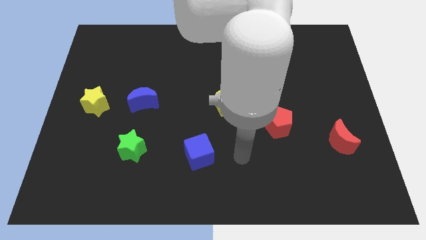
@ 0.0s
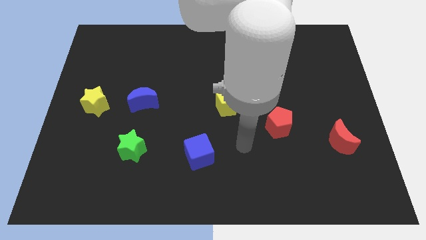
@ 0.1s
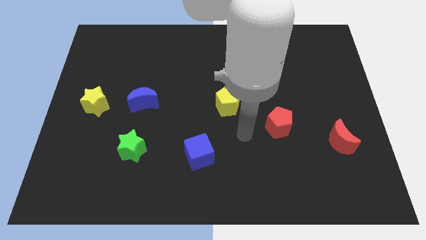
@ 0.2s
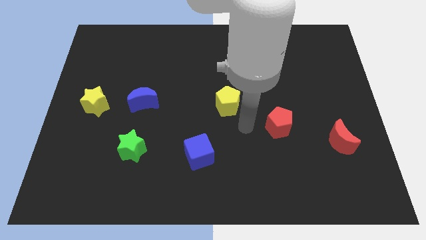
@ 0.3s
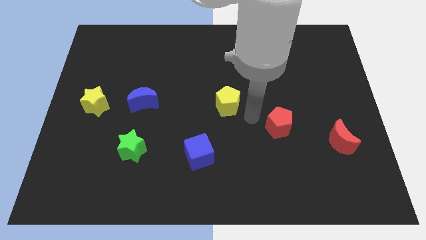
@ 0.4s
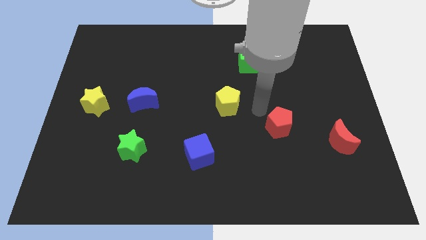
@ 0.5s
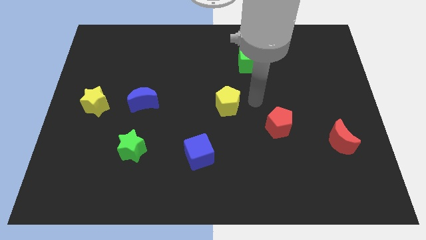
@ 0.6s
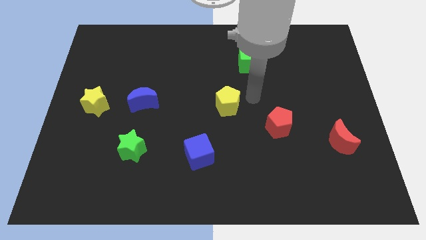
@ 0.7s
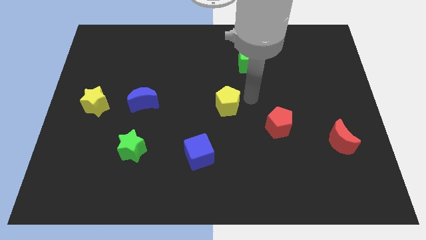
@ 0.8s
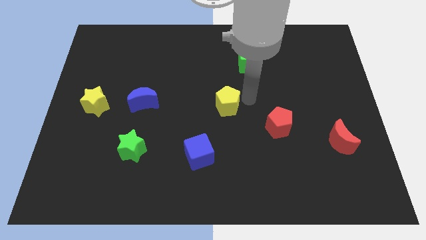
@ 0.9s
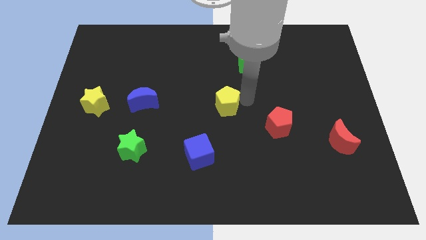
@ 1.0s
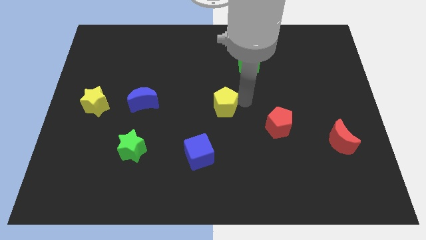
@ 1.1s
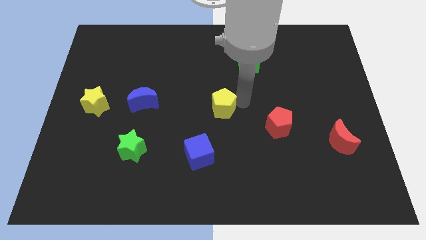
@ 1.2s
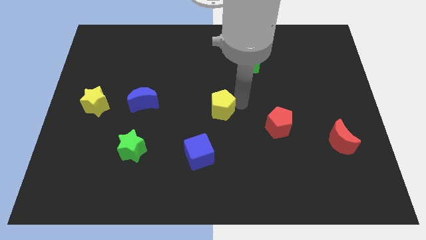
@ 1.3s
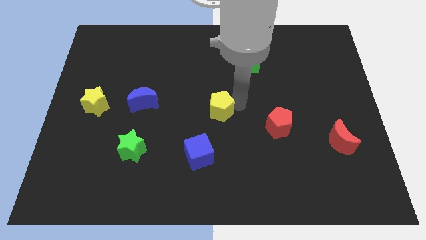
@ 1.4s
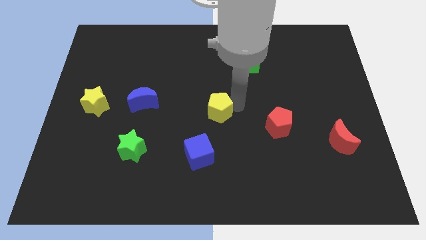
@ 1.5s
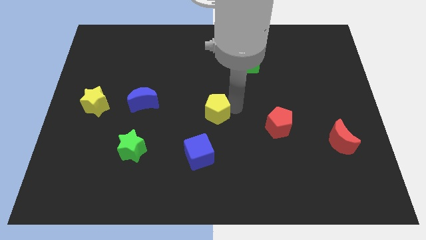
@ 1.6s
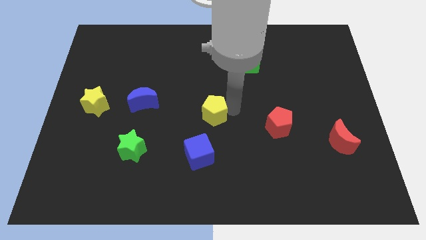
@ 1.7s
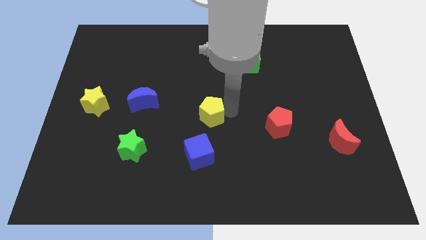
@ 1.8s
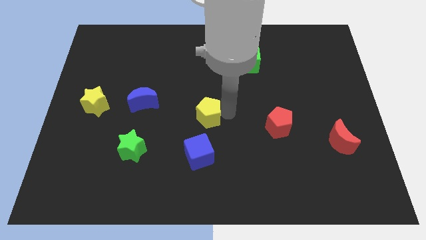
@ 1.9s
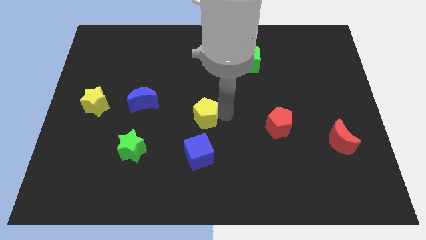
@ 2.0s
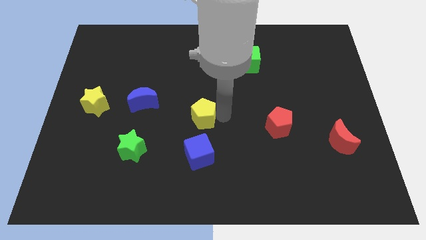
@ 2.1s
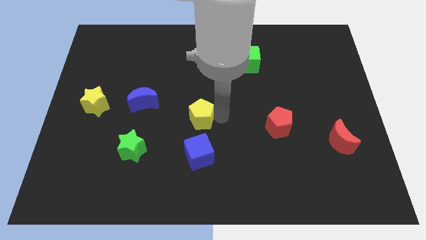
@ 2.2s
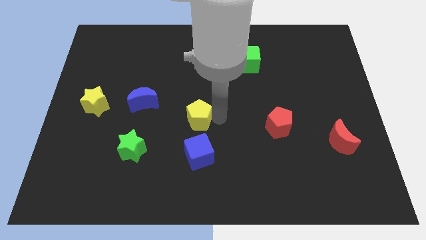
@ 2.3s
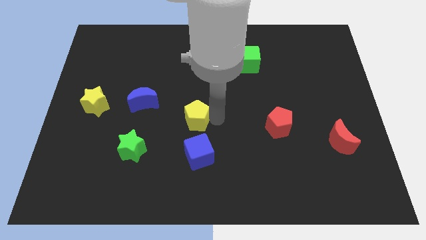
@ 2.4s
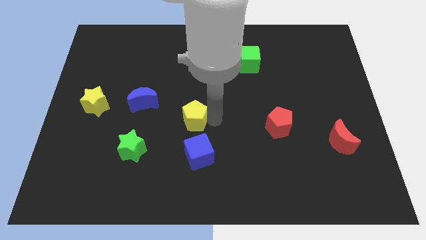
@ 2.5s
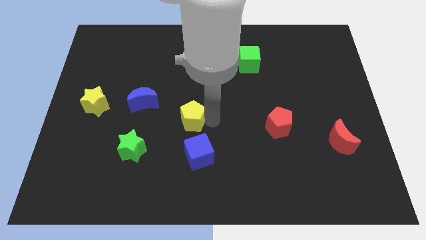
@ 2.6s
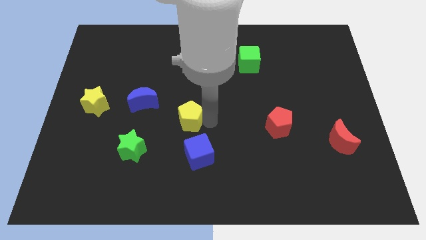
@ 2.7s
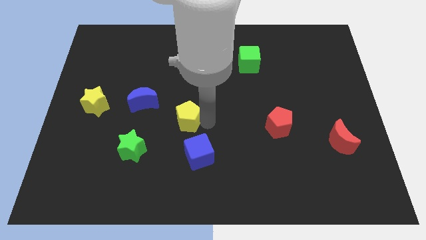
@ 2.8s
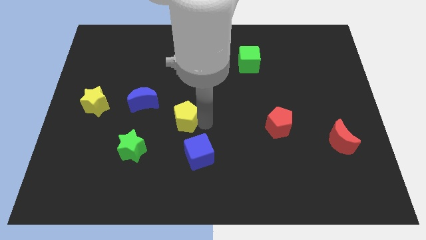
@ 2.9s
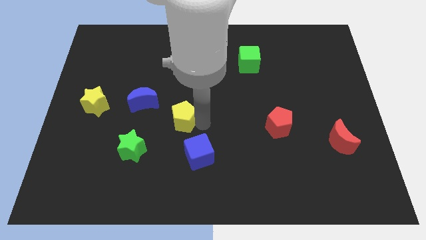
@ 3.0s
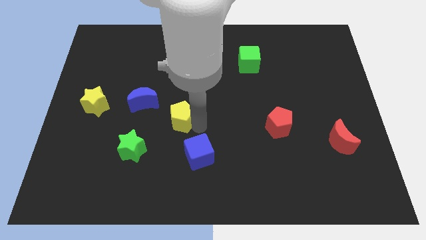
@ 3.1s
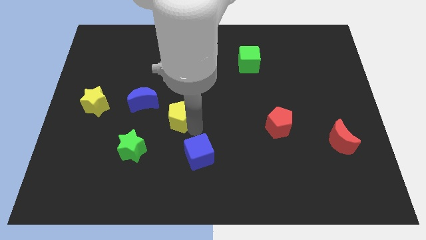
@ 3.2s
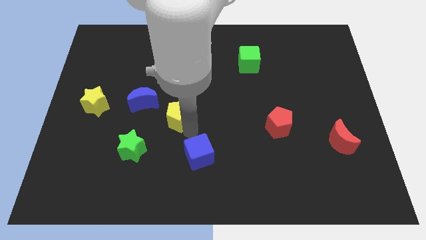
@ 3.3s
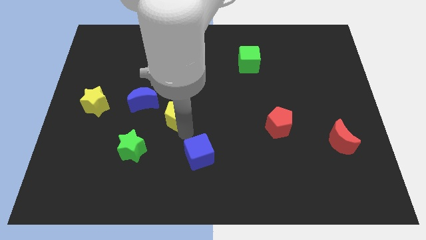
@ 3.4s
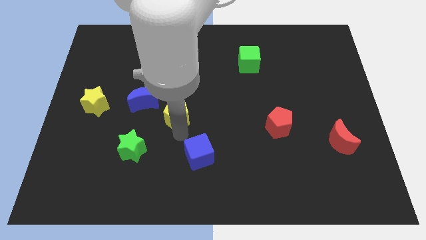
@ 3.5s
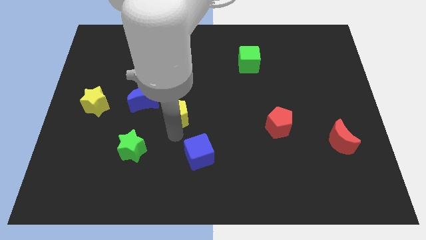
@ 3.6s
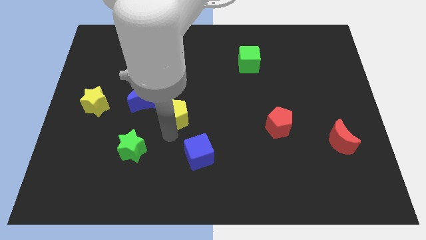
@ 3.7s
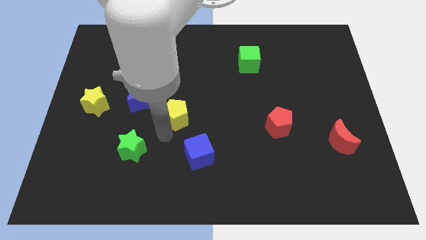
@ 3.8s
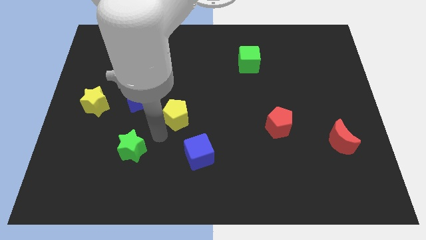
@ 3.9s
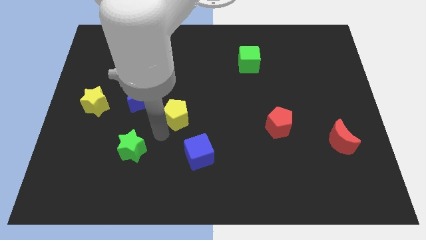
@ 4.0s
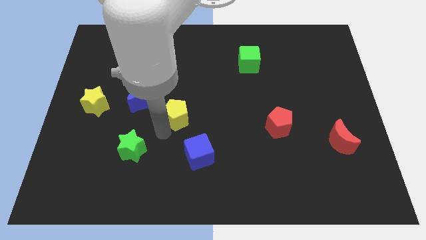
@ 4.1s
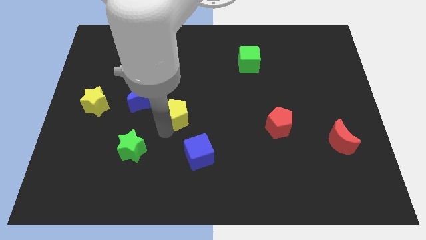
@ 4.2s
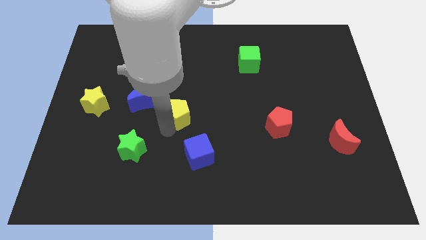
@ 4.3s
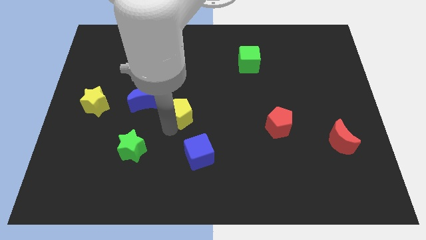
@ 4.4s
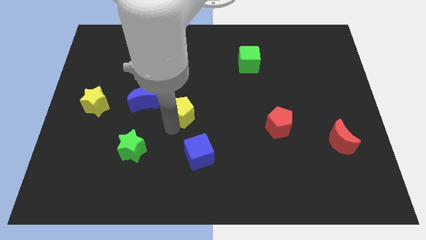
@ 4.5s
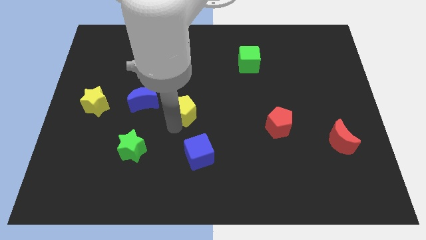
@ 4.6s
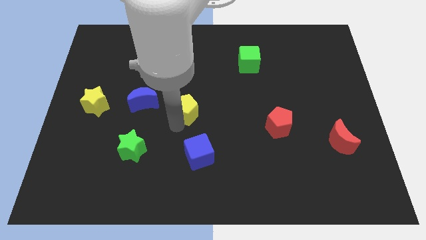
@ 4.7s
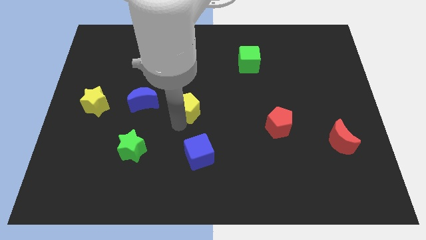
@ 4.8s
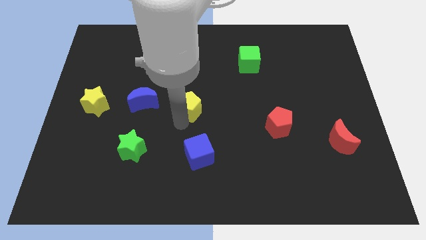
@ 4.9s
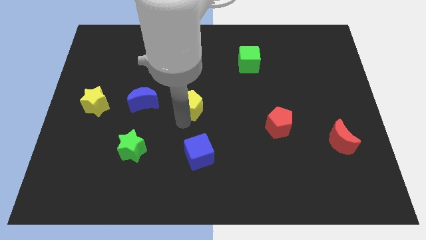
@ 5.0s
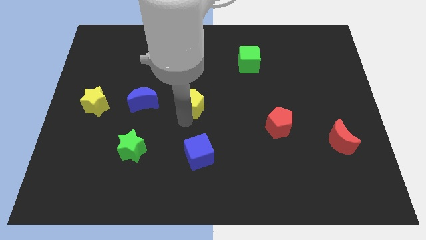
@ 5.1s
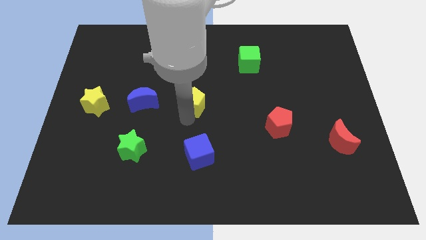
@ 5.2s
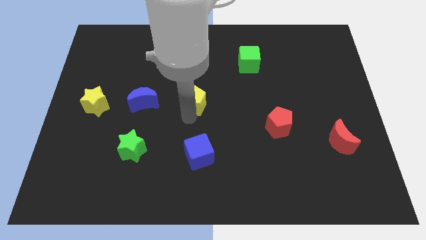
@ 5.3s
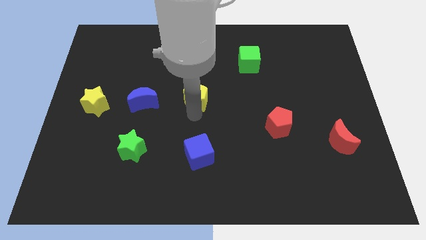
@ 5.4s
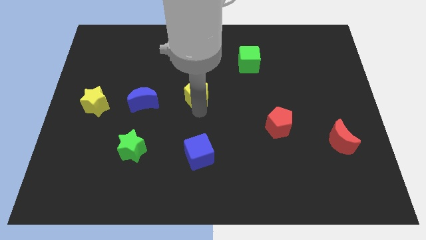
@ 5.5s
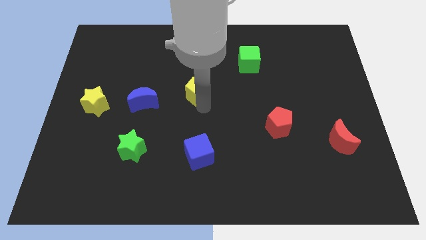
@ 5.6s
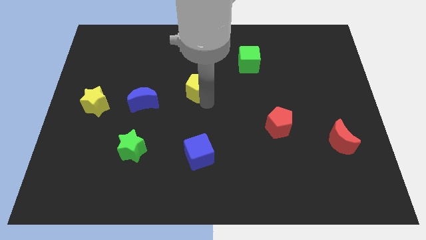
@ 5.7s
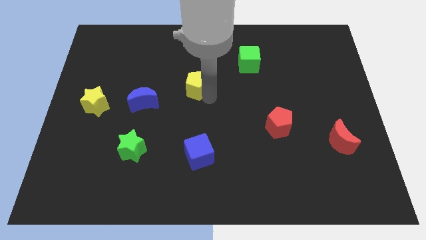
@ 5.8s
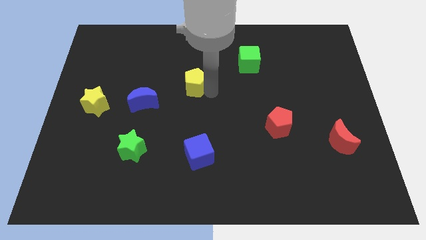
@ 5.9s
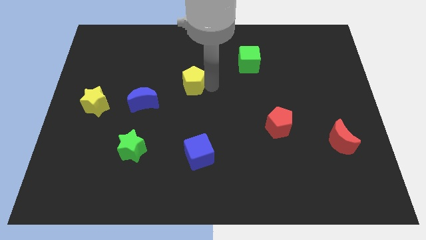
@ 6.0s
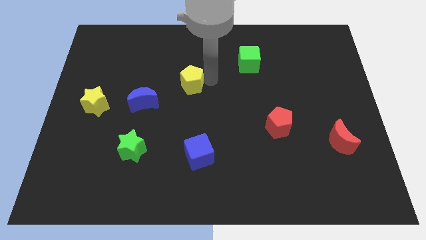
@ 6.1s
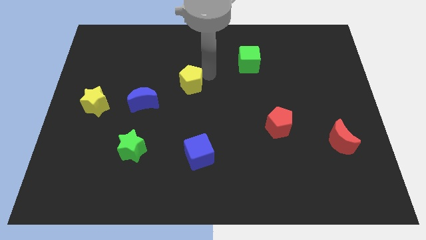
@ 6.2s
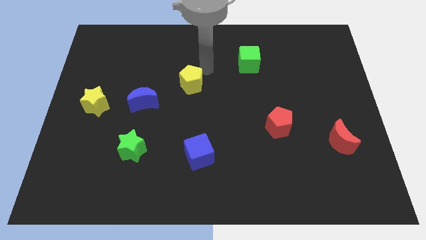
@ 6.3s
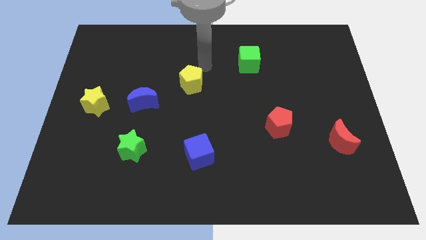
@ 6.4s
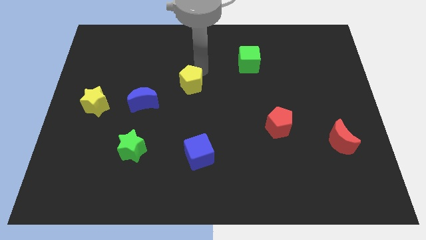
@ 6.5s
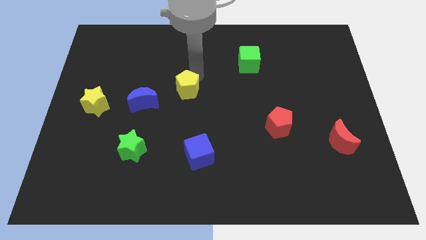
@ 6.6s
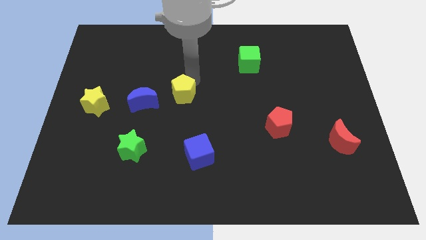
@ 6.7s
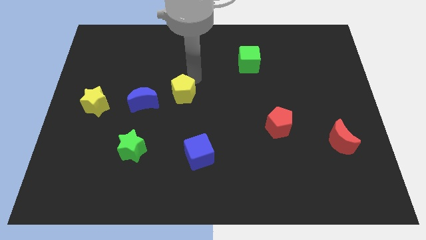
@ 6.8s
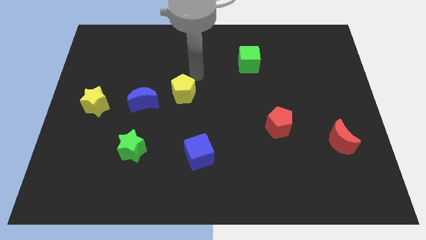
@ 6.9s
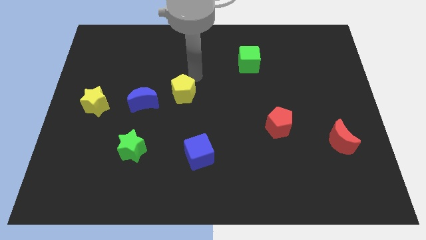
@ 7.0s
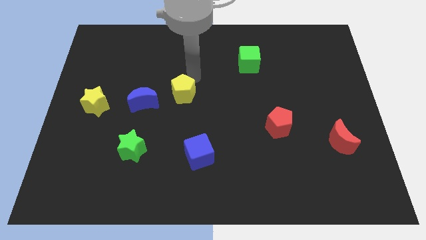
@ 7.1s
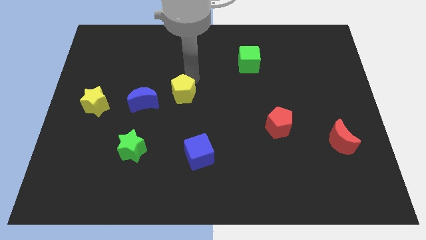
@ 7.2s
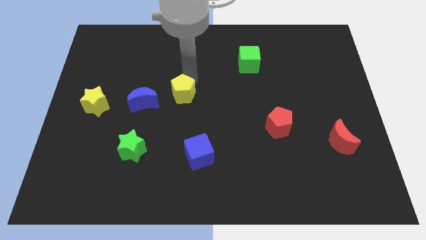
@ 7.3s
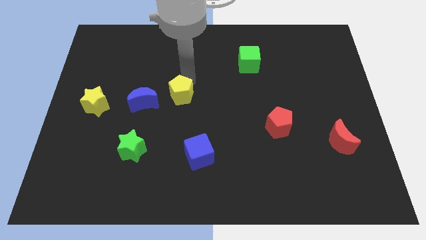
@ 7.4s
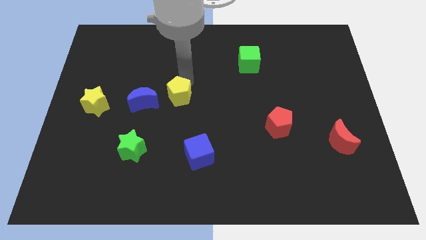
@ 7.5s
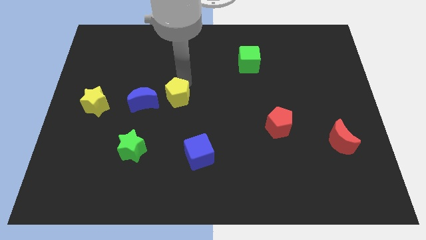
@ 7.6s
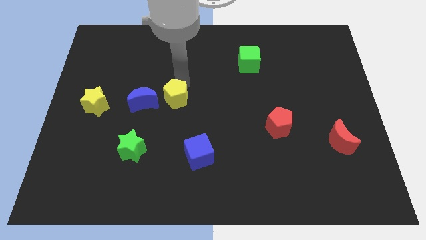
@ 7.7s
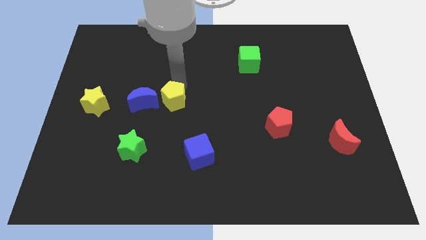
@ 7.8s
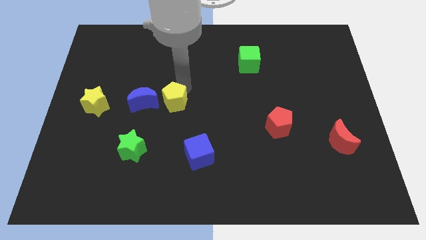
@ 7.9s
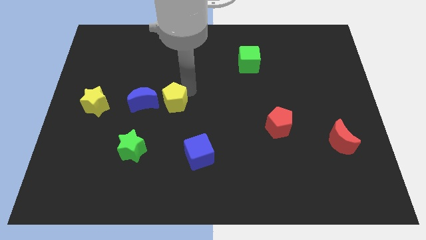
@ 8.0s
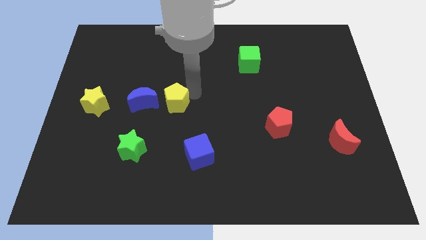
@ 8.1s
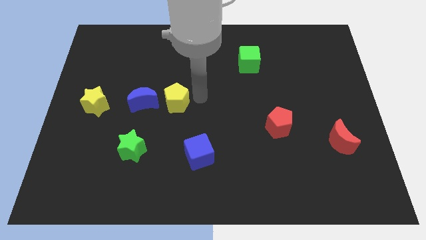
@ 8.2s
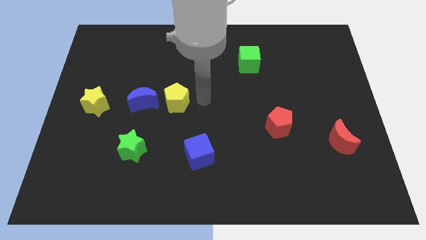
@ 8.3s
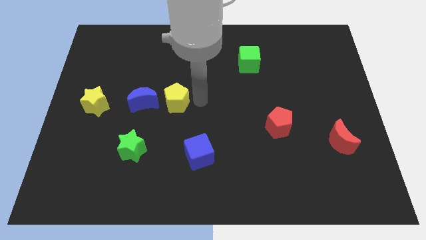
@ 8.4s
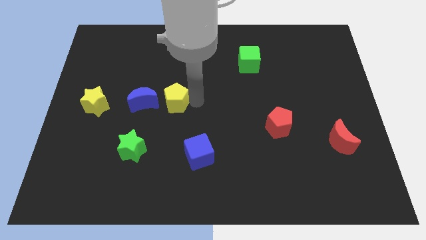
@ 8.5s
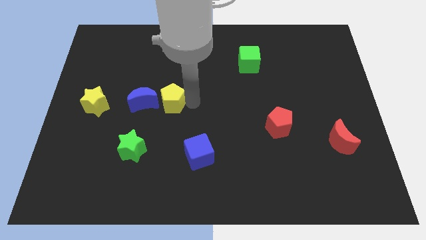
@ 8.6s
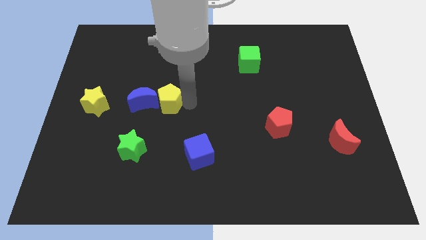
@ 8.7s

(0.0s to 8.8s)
push the yellow pentagon next to the blue moon
